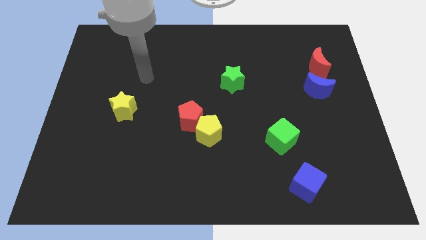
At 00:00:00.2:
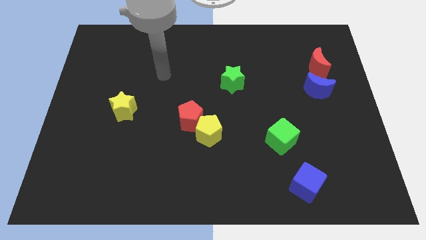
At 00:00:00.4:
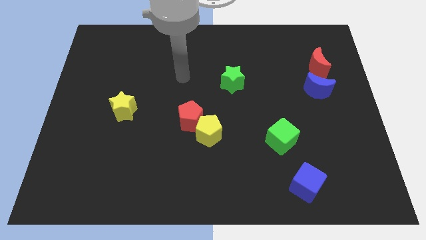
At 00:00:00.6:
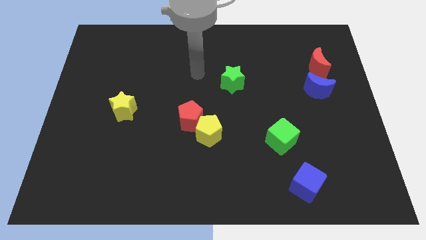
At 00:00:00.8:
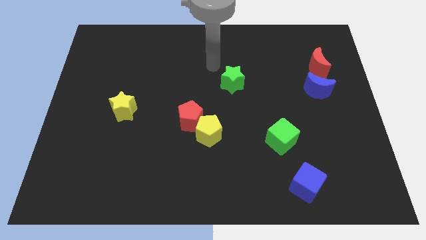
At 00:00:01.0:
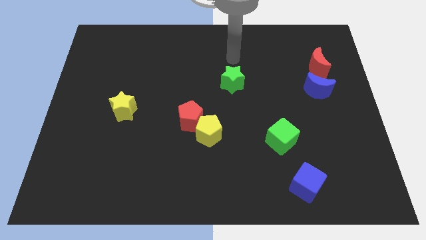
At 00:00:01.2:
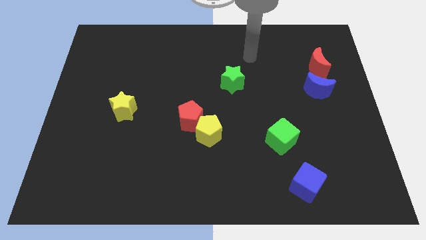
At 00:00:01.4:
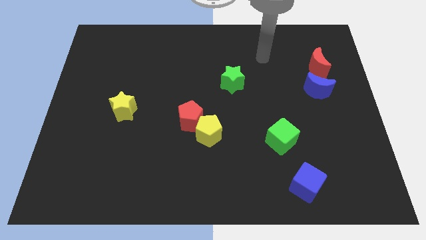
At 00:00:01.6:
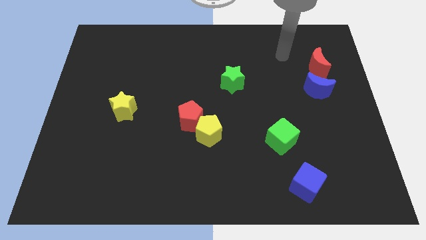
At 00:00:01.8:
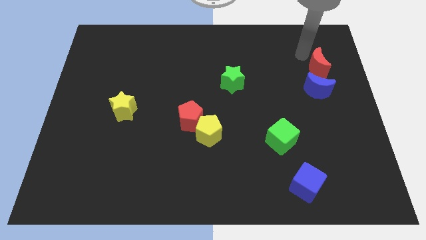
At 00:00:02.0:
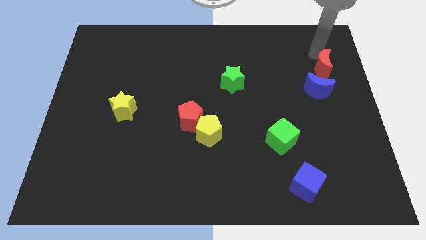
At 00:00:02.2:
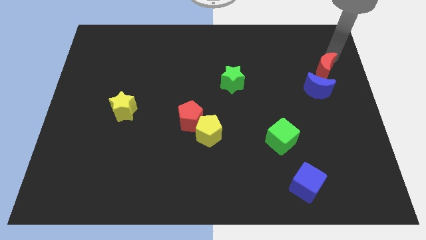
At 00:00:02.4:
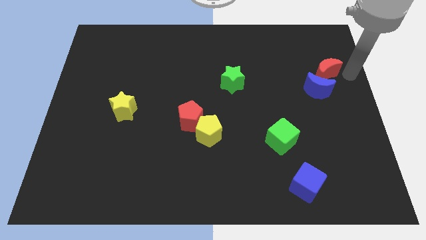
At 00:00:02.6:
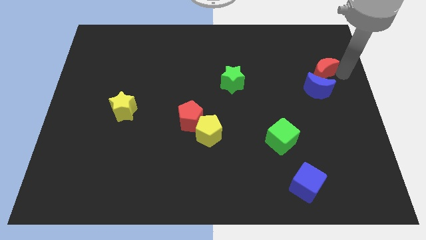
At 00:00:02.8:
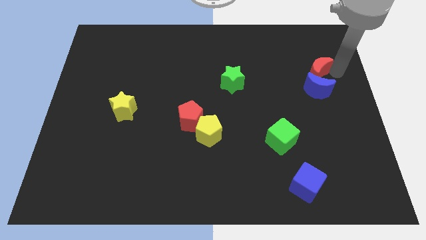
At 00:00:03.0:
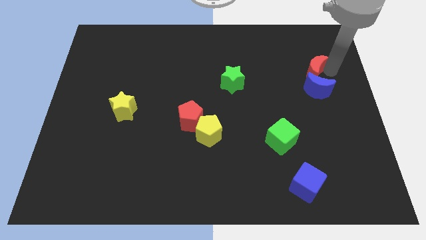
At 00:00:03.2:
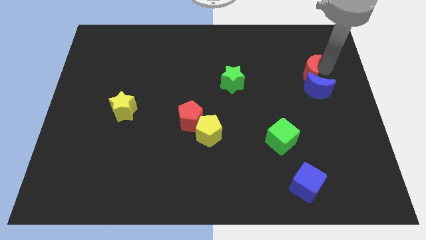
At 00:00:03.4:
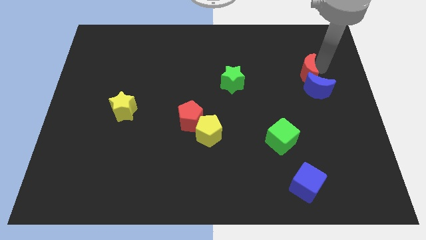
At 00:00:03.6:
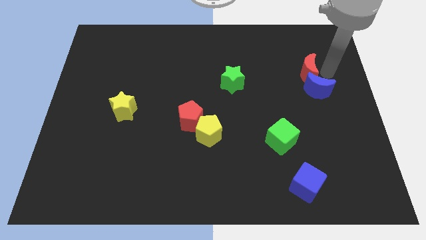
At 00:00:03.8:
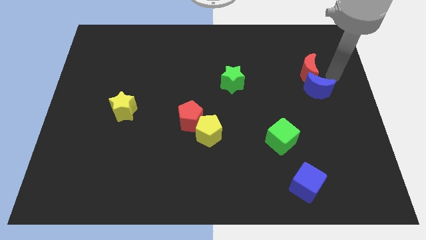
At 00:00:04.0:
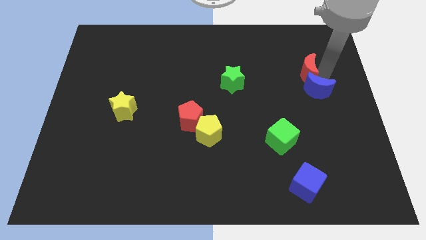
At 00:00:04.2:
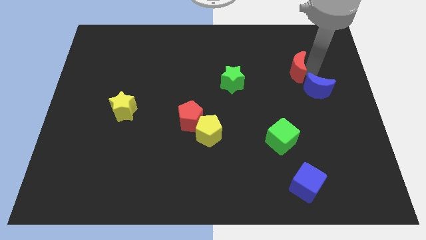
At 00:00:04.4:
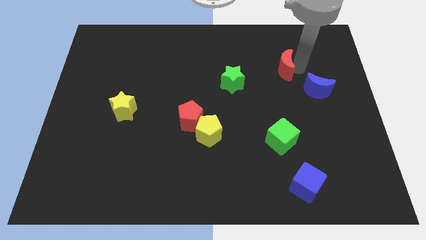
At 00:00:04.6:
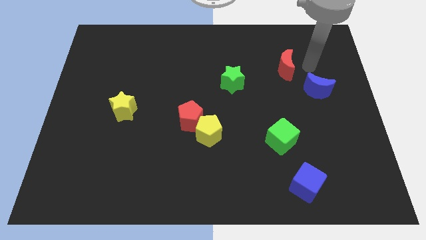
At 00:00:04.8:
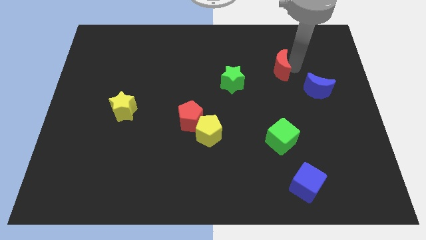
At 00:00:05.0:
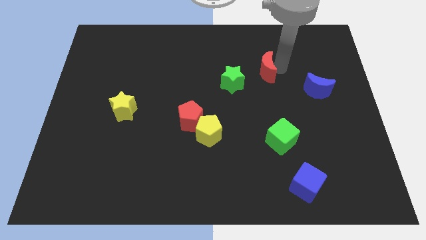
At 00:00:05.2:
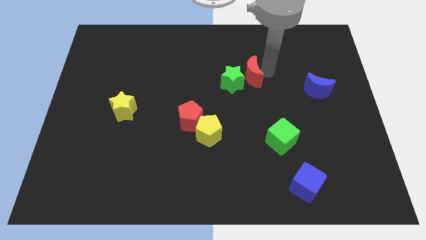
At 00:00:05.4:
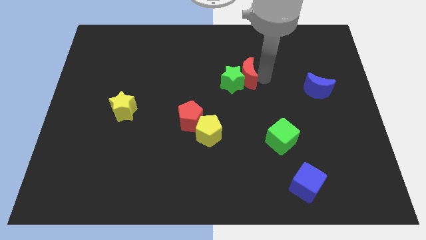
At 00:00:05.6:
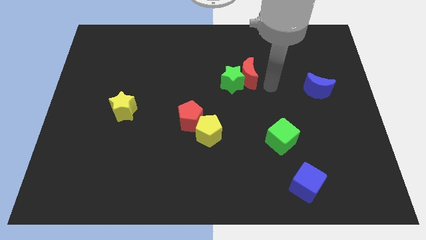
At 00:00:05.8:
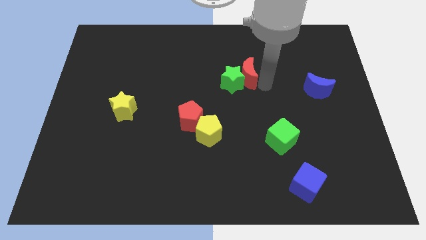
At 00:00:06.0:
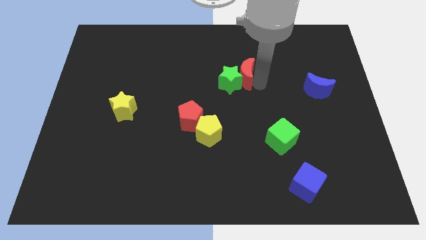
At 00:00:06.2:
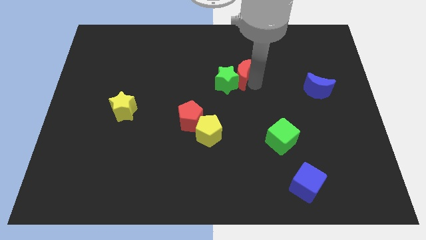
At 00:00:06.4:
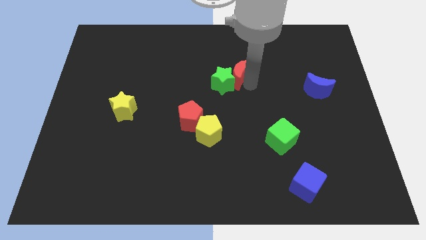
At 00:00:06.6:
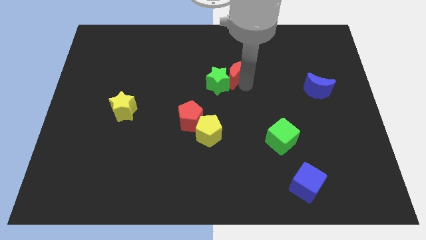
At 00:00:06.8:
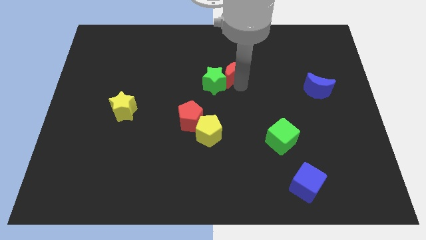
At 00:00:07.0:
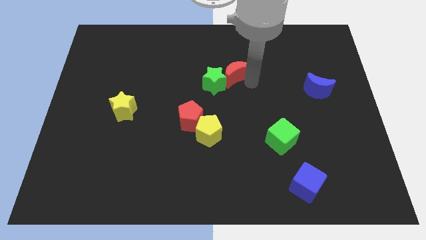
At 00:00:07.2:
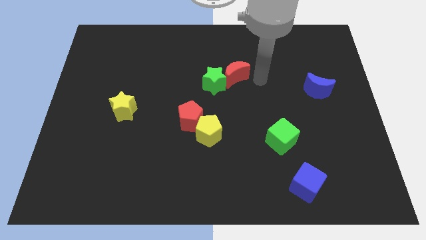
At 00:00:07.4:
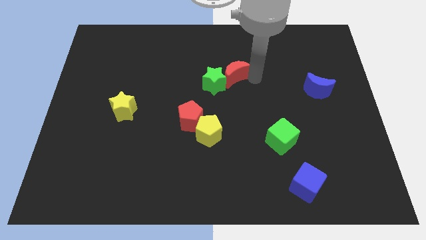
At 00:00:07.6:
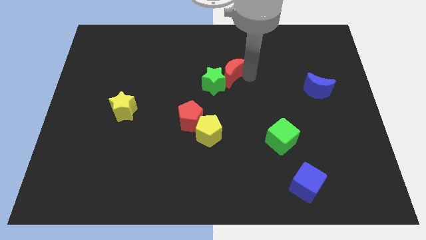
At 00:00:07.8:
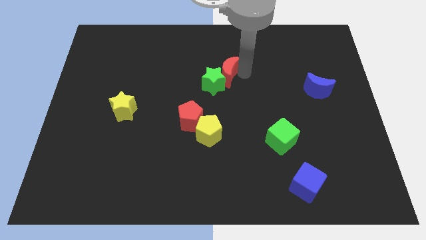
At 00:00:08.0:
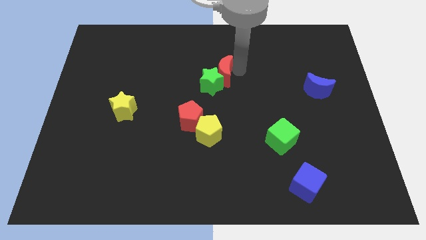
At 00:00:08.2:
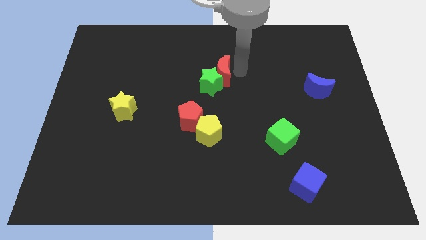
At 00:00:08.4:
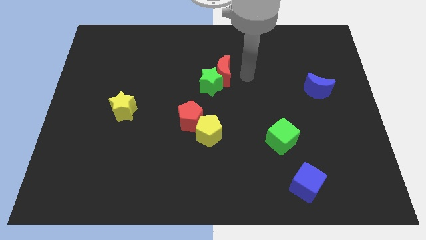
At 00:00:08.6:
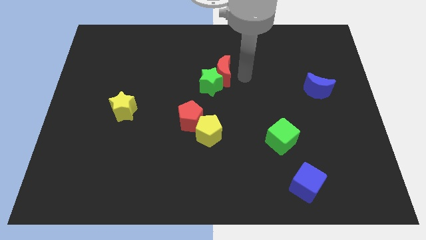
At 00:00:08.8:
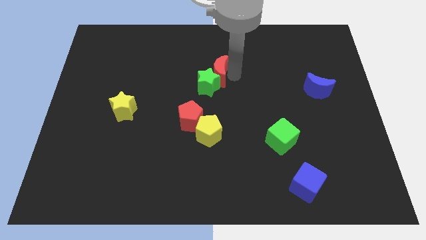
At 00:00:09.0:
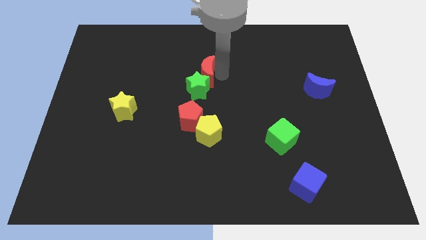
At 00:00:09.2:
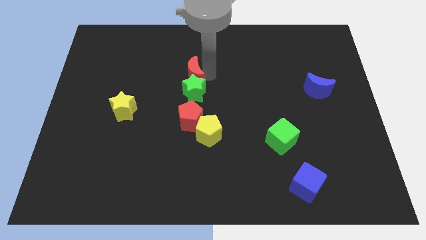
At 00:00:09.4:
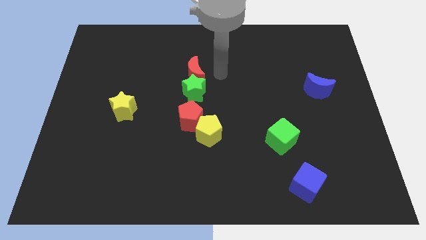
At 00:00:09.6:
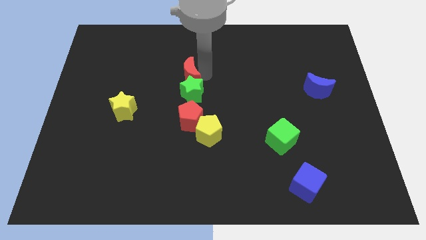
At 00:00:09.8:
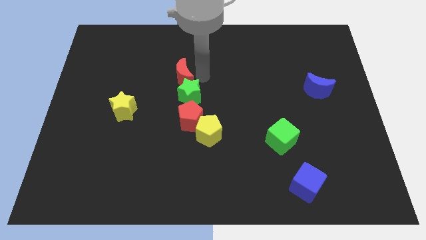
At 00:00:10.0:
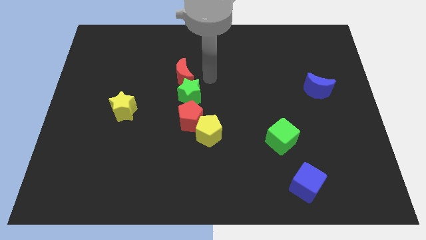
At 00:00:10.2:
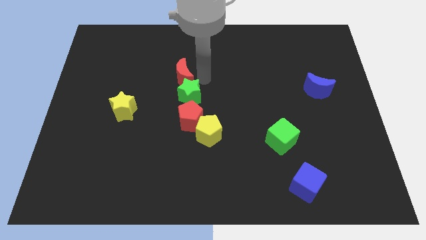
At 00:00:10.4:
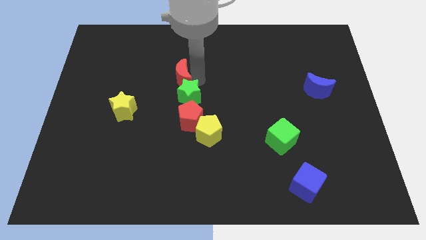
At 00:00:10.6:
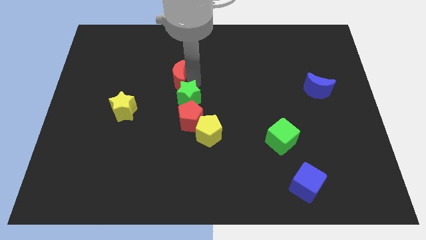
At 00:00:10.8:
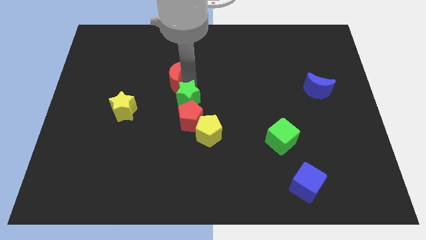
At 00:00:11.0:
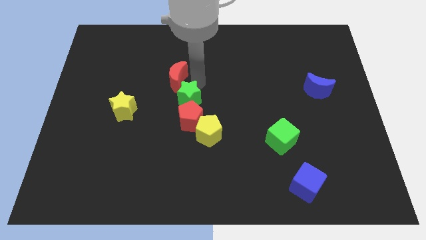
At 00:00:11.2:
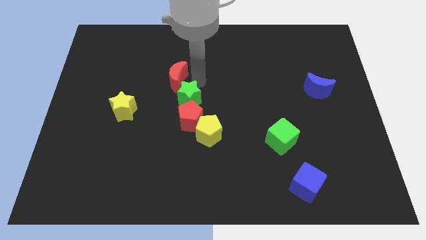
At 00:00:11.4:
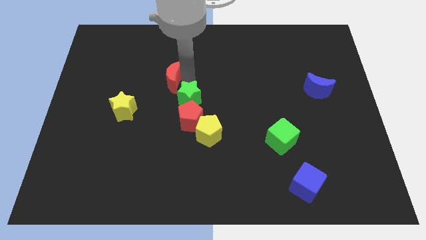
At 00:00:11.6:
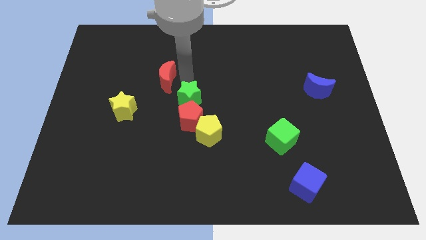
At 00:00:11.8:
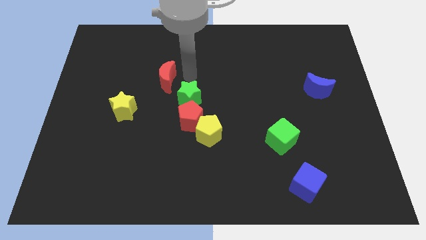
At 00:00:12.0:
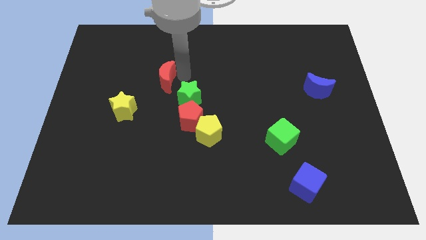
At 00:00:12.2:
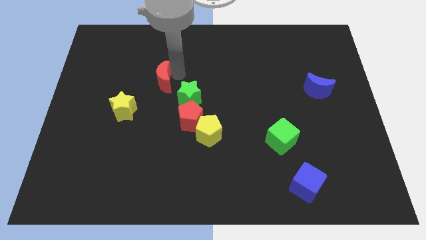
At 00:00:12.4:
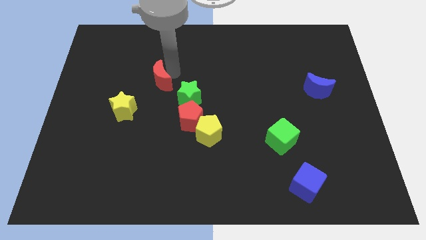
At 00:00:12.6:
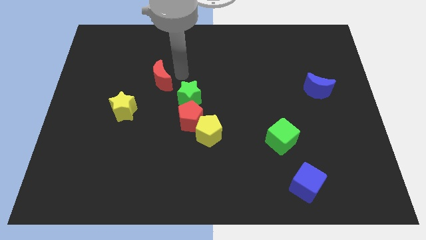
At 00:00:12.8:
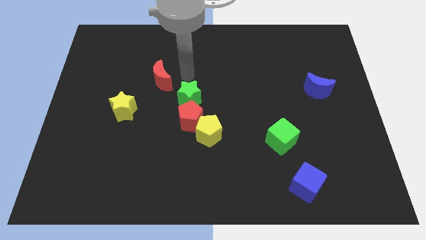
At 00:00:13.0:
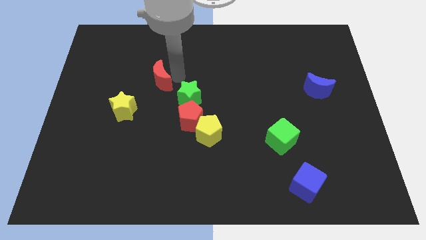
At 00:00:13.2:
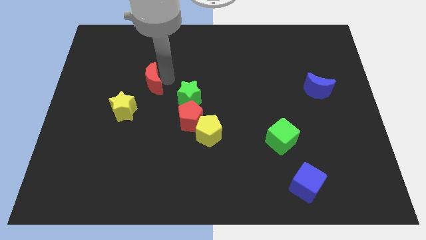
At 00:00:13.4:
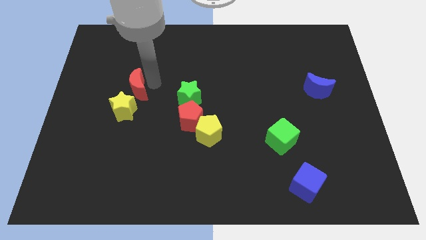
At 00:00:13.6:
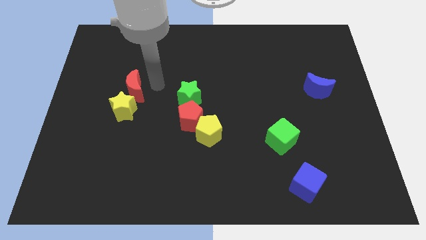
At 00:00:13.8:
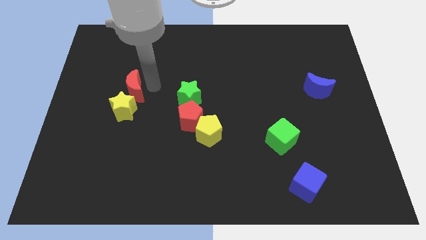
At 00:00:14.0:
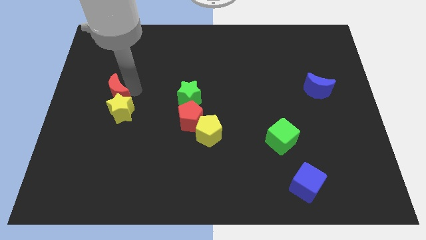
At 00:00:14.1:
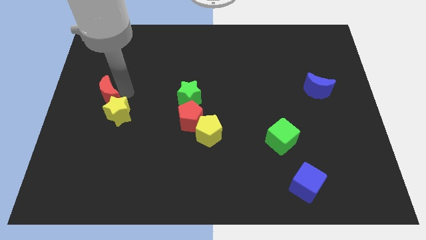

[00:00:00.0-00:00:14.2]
slide the red moon to the center left
